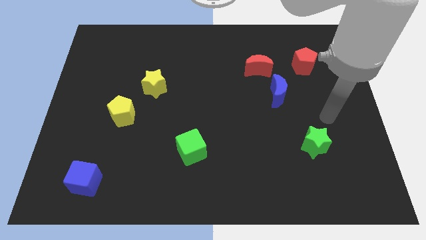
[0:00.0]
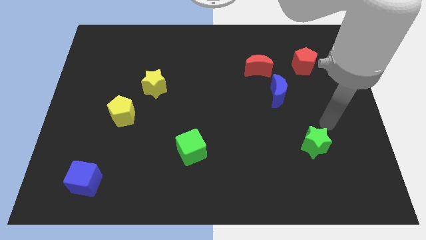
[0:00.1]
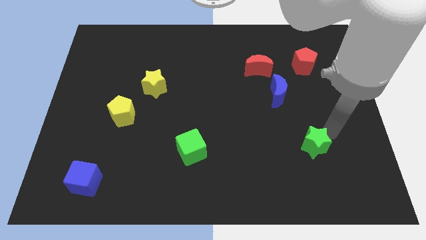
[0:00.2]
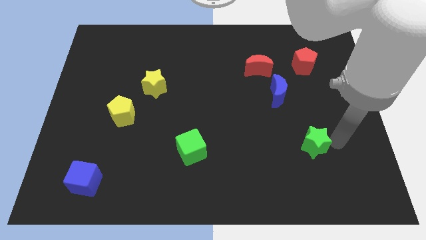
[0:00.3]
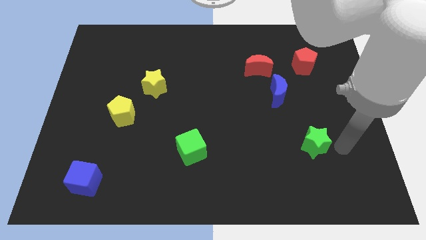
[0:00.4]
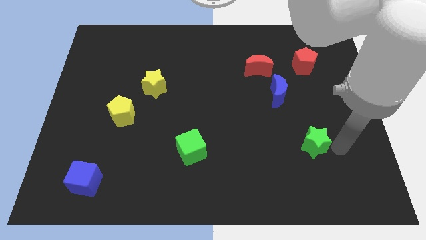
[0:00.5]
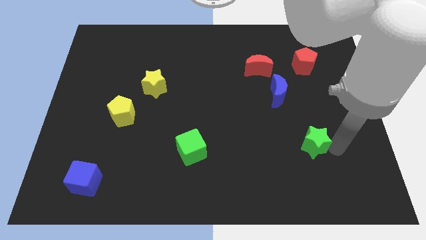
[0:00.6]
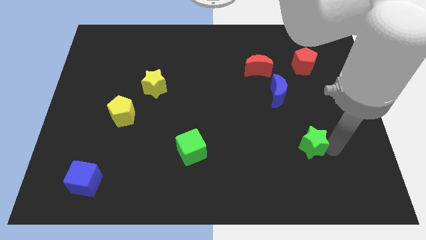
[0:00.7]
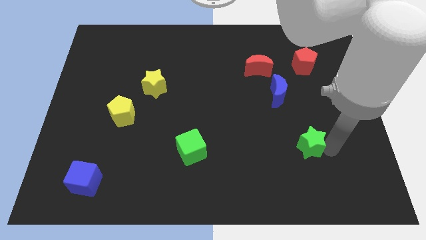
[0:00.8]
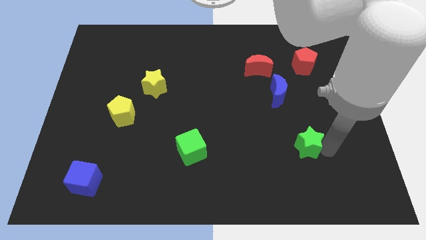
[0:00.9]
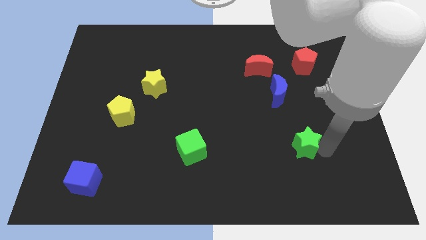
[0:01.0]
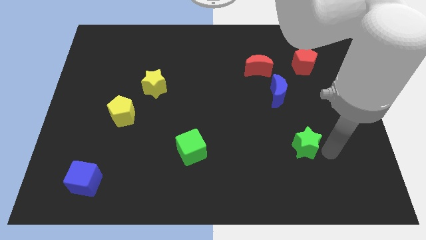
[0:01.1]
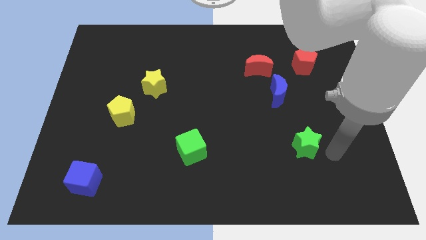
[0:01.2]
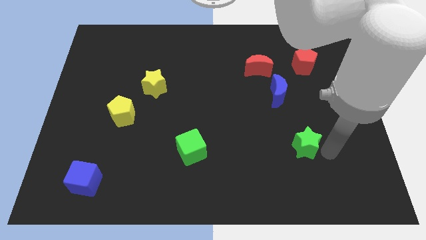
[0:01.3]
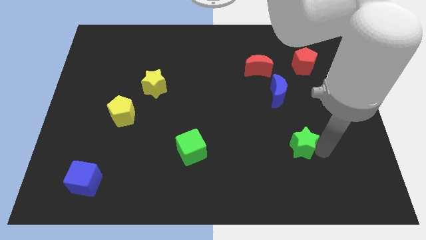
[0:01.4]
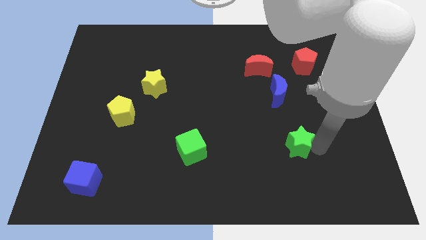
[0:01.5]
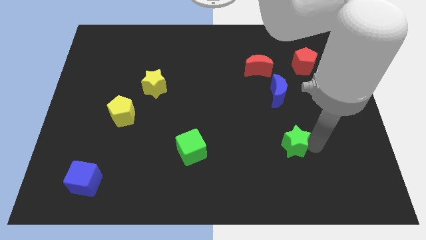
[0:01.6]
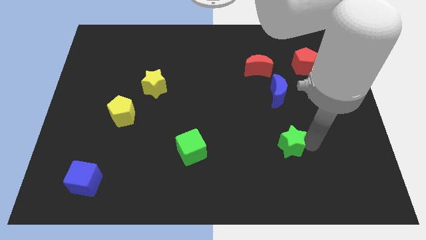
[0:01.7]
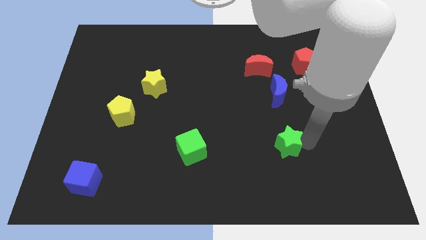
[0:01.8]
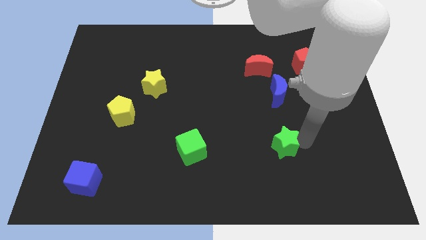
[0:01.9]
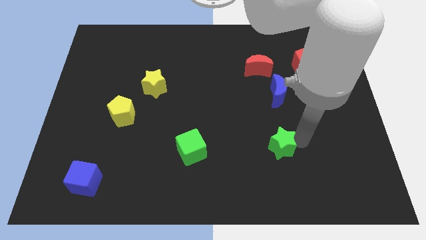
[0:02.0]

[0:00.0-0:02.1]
slightly move the green star left

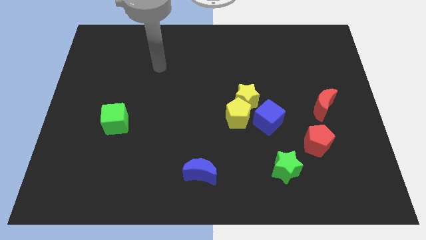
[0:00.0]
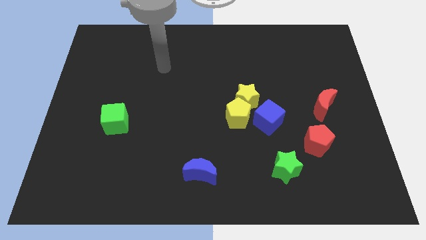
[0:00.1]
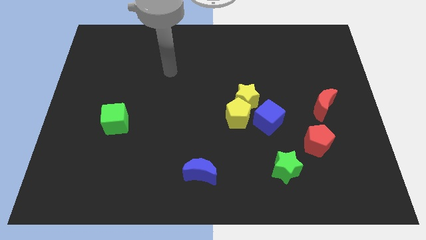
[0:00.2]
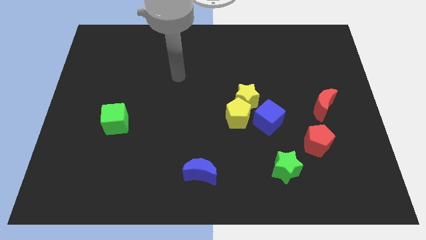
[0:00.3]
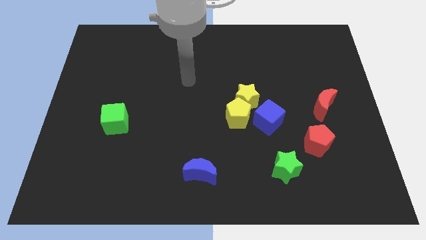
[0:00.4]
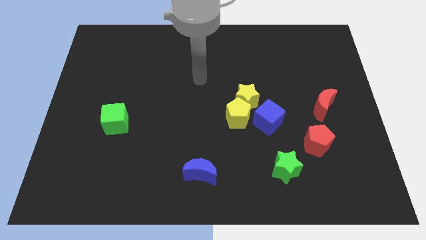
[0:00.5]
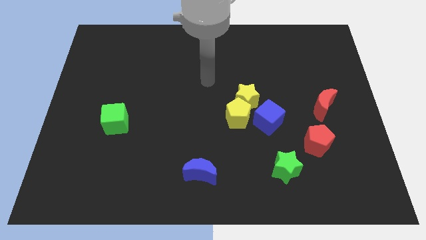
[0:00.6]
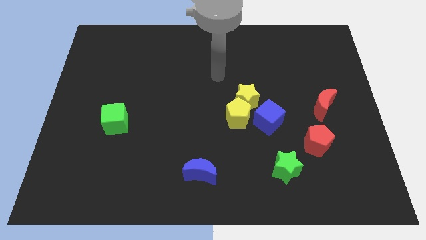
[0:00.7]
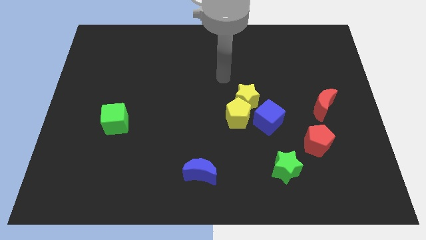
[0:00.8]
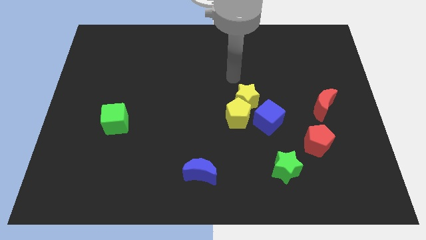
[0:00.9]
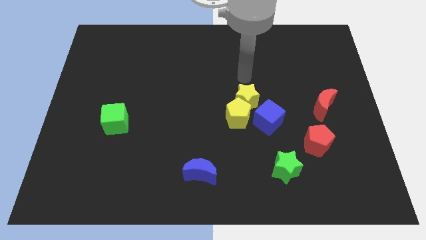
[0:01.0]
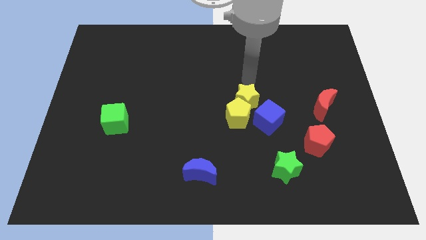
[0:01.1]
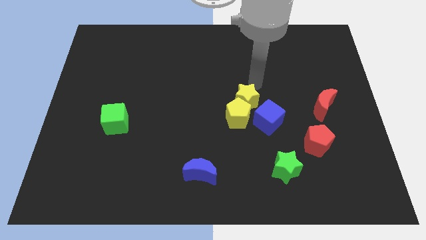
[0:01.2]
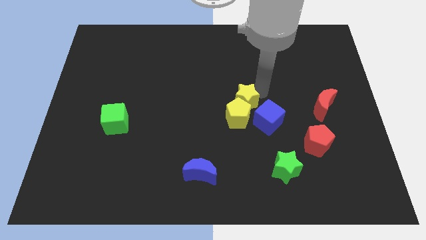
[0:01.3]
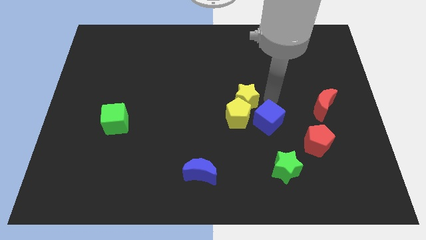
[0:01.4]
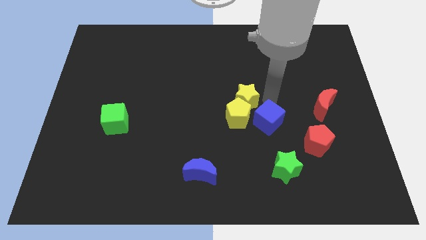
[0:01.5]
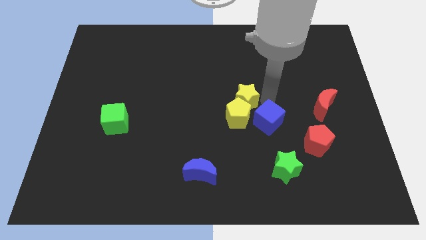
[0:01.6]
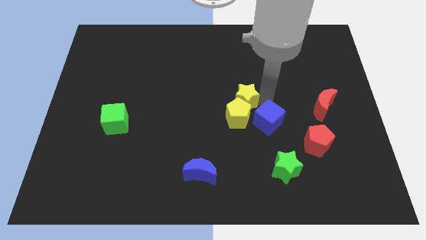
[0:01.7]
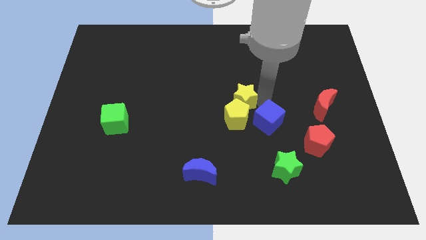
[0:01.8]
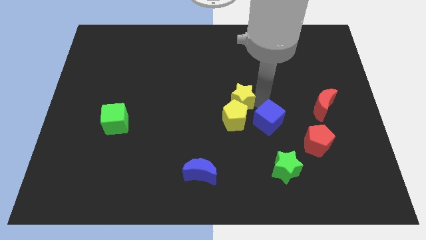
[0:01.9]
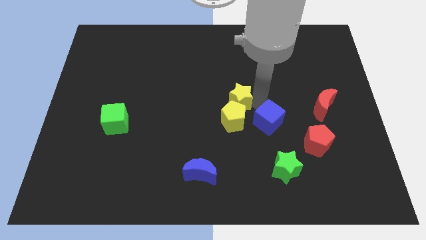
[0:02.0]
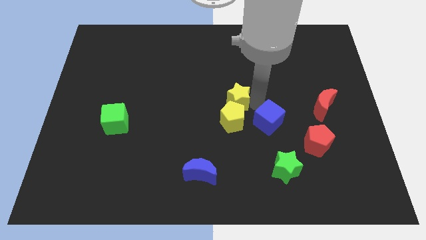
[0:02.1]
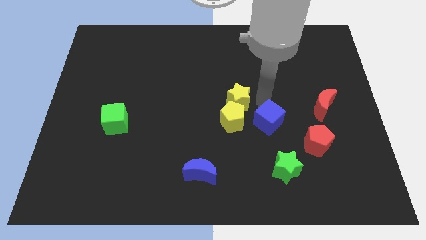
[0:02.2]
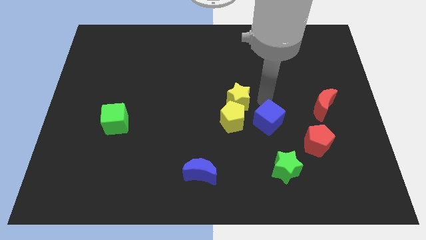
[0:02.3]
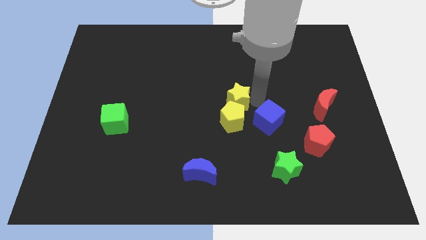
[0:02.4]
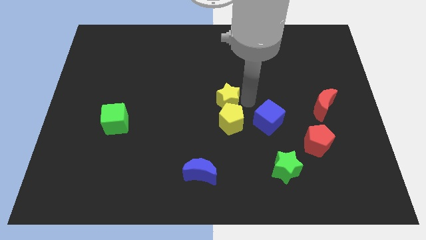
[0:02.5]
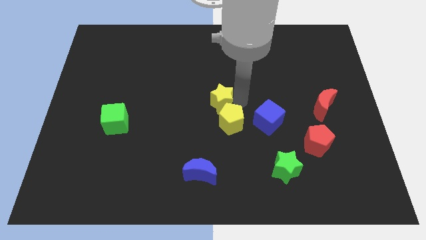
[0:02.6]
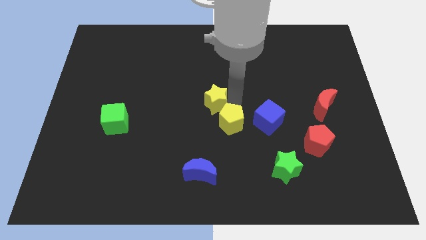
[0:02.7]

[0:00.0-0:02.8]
slightly slide the yellow star left

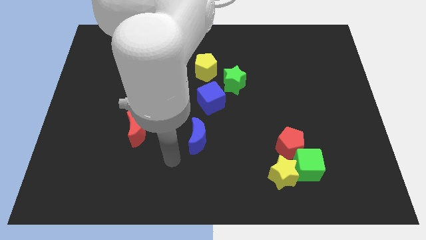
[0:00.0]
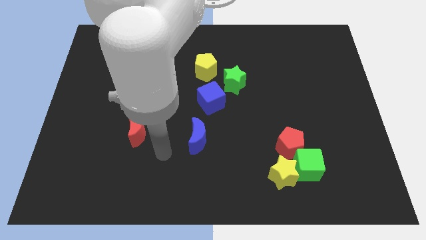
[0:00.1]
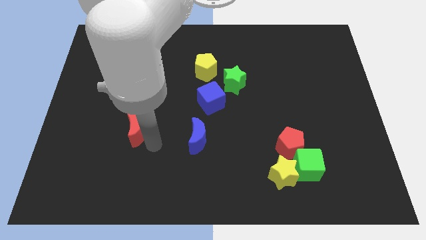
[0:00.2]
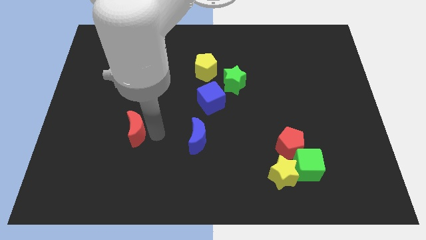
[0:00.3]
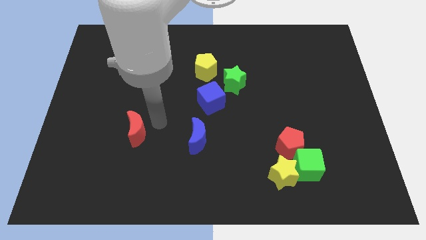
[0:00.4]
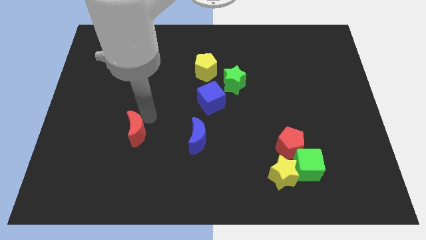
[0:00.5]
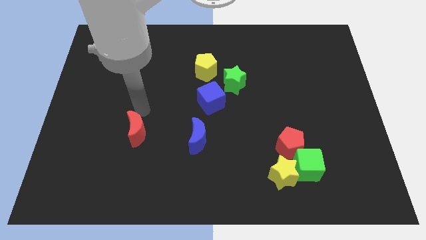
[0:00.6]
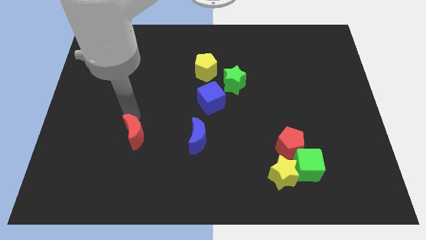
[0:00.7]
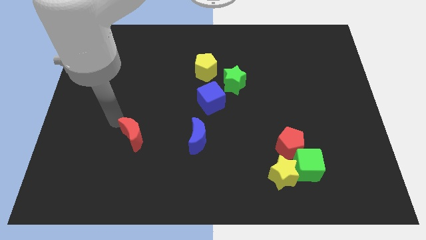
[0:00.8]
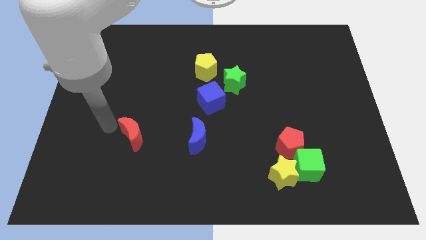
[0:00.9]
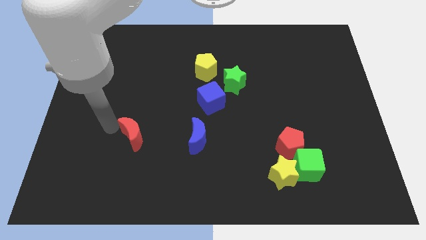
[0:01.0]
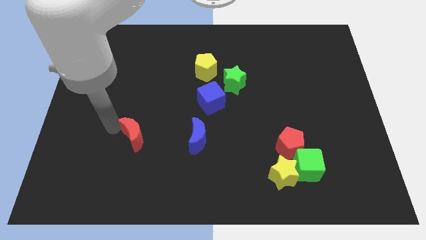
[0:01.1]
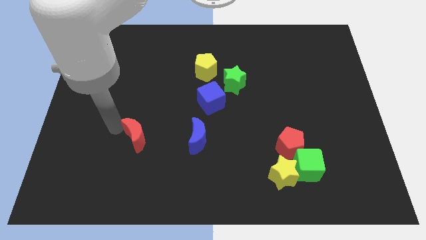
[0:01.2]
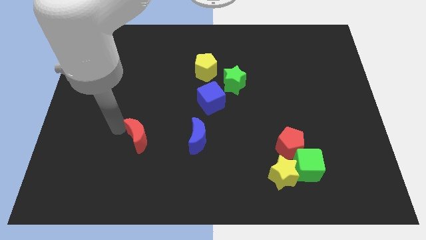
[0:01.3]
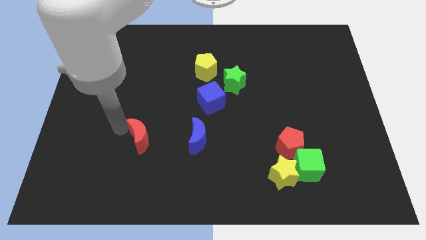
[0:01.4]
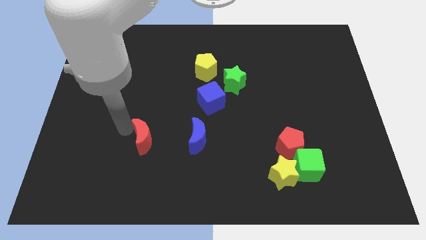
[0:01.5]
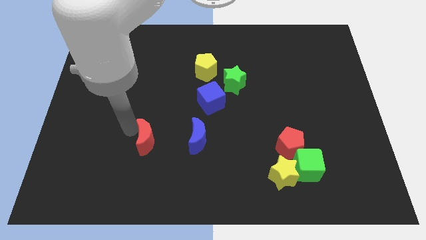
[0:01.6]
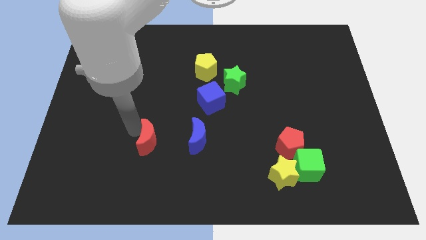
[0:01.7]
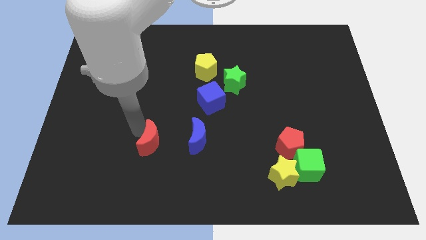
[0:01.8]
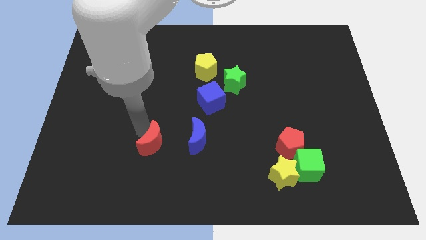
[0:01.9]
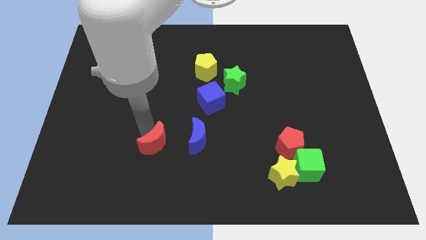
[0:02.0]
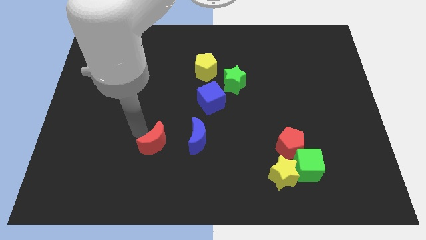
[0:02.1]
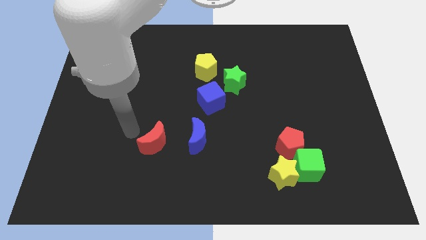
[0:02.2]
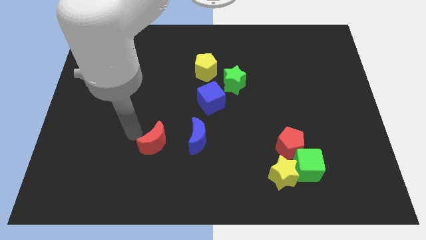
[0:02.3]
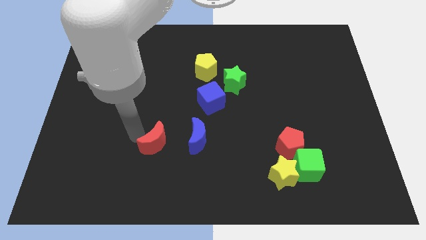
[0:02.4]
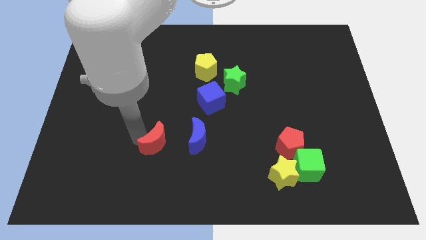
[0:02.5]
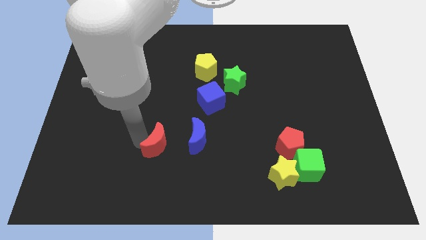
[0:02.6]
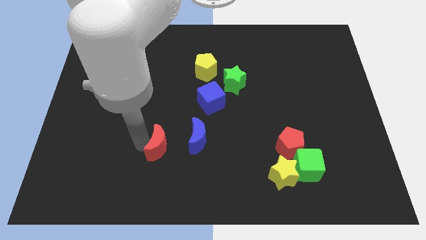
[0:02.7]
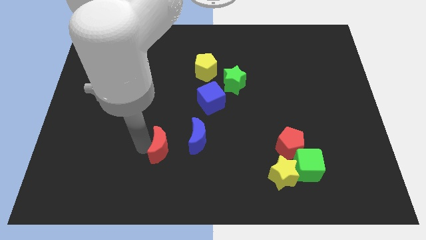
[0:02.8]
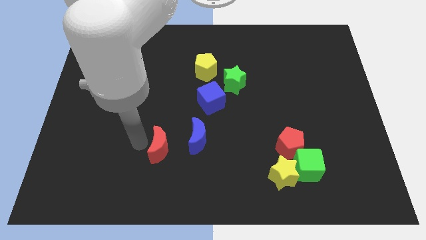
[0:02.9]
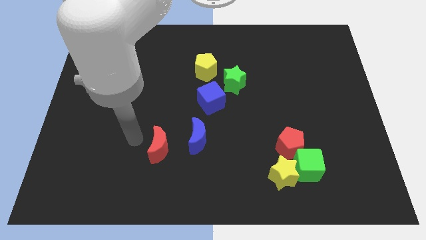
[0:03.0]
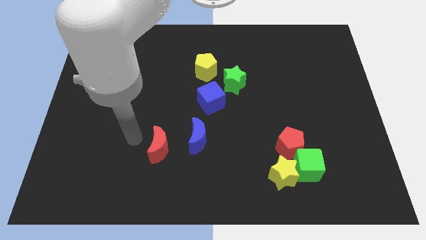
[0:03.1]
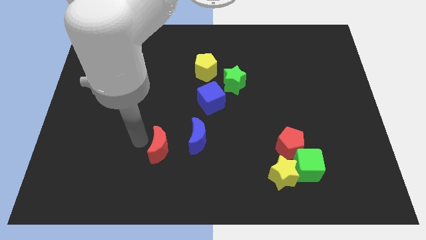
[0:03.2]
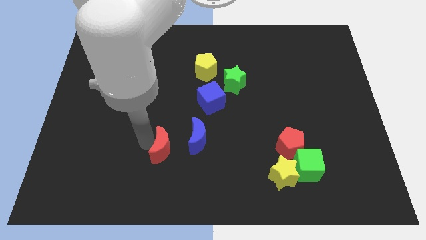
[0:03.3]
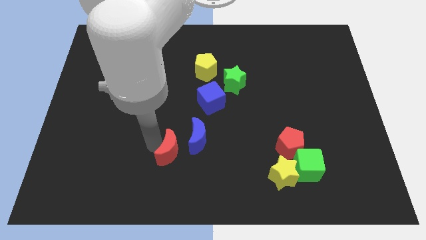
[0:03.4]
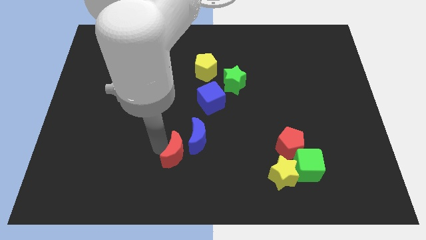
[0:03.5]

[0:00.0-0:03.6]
slide the red moon somewhat to the right
